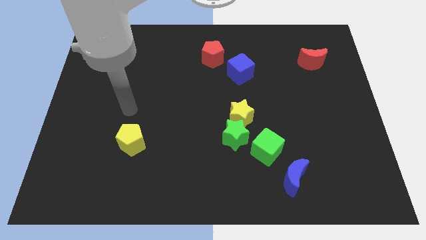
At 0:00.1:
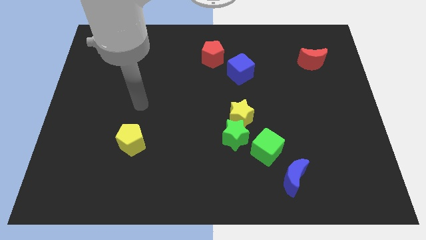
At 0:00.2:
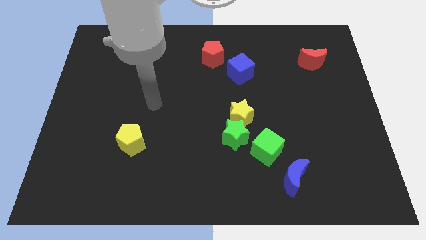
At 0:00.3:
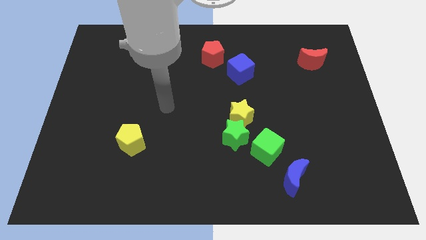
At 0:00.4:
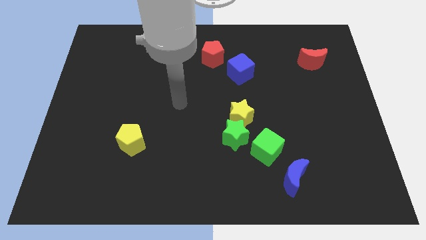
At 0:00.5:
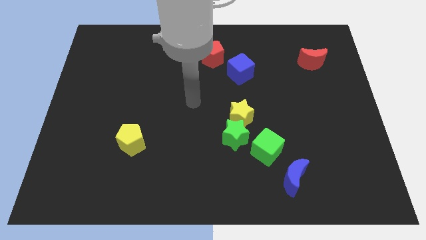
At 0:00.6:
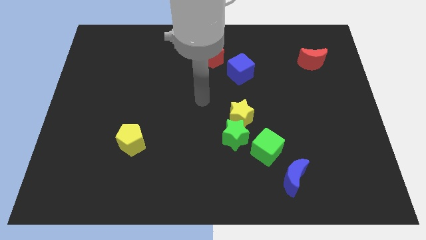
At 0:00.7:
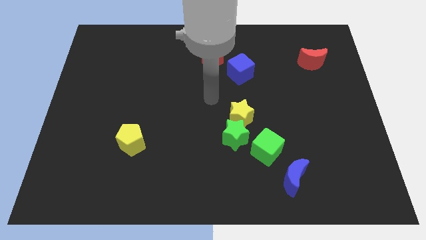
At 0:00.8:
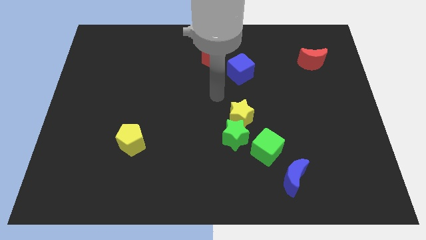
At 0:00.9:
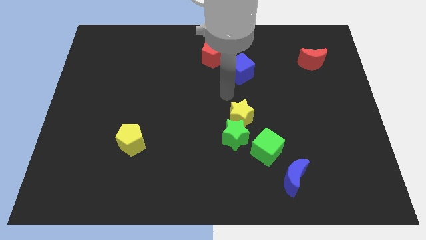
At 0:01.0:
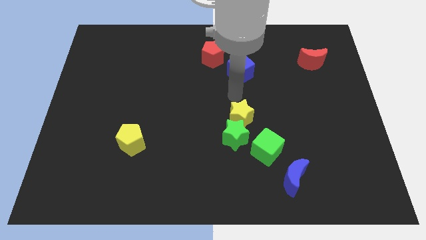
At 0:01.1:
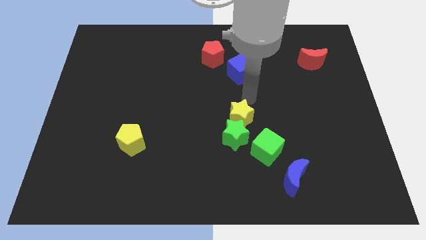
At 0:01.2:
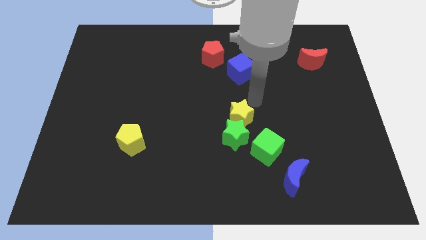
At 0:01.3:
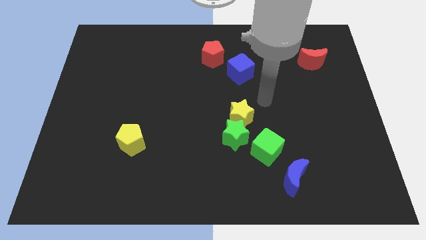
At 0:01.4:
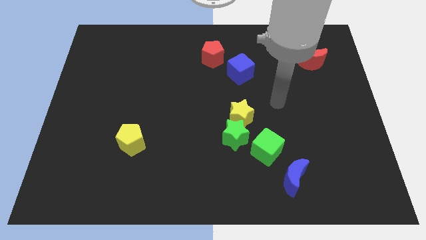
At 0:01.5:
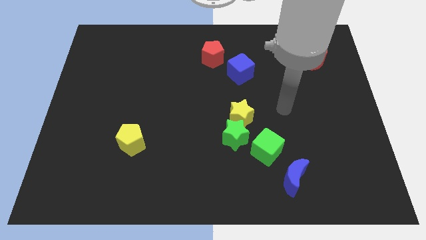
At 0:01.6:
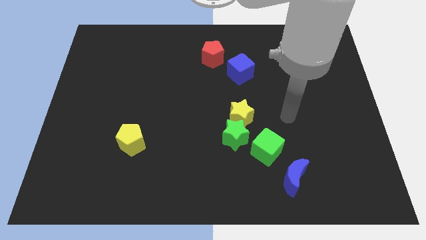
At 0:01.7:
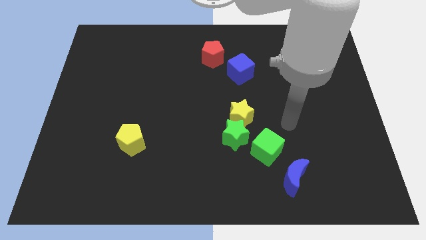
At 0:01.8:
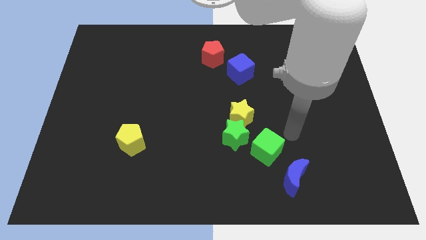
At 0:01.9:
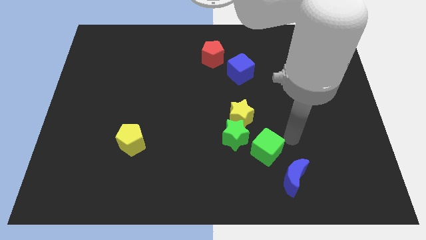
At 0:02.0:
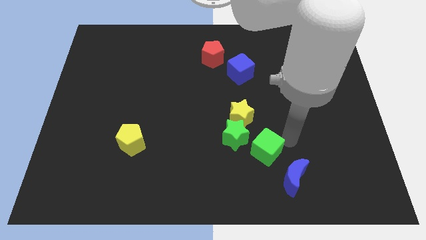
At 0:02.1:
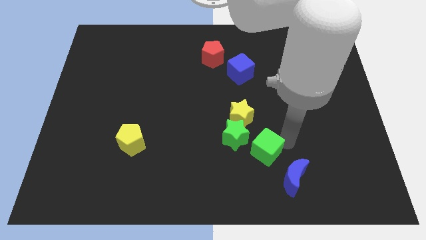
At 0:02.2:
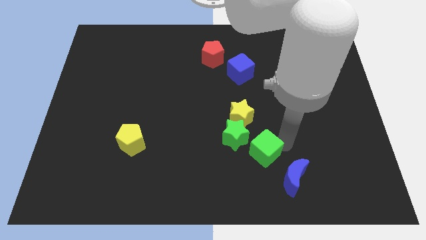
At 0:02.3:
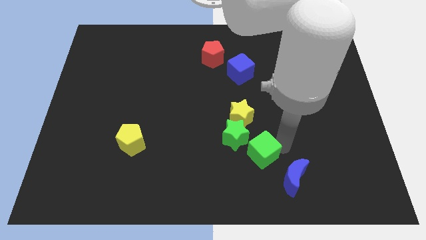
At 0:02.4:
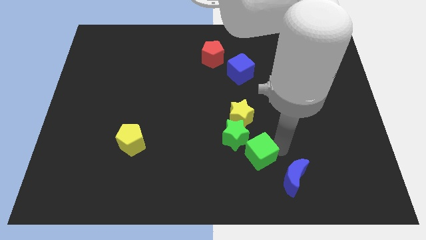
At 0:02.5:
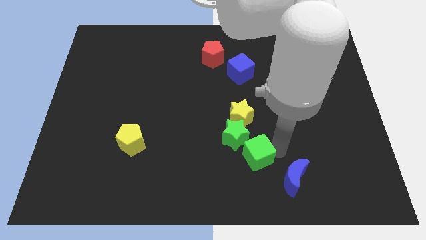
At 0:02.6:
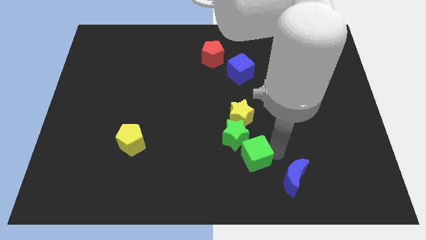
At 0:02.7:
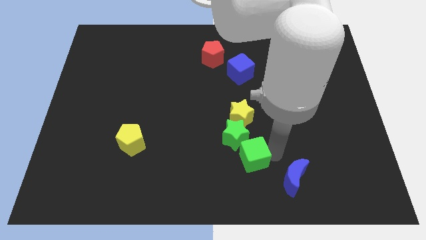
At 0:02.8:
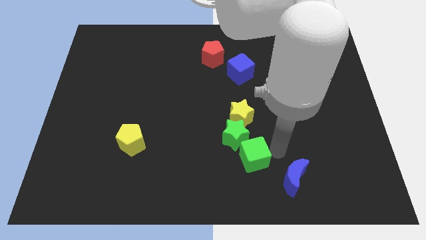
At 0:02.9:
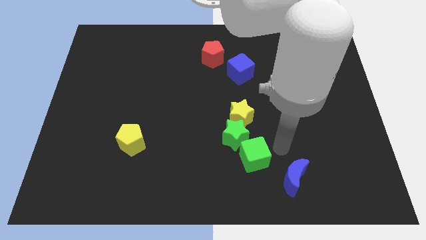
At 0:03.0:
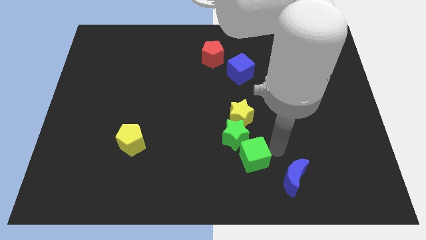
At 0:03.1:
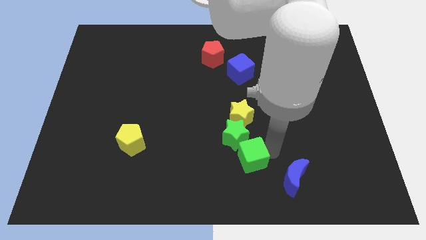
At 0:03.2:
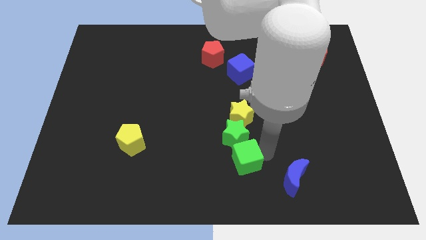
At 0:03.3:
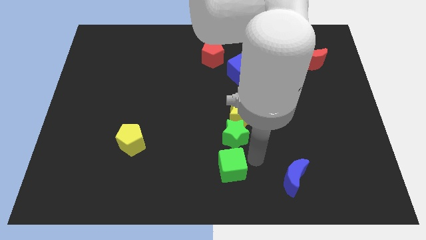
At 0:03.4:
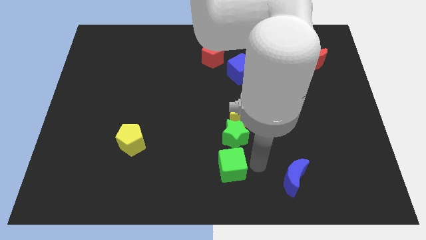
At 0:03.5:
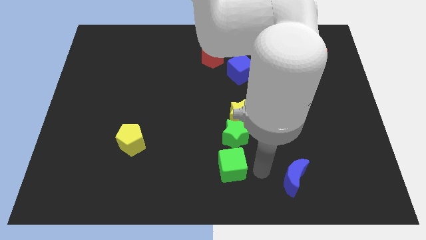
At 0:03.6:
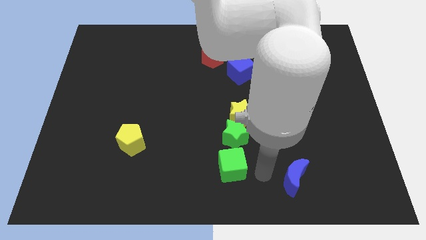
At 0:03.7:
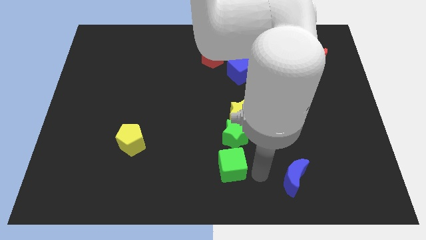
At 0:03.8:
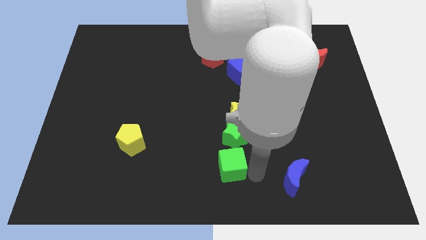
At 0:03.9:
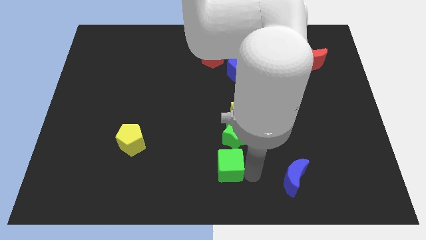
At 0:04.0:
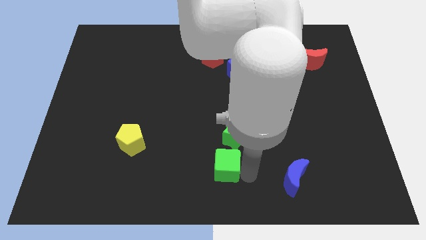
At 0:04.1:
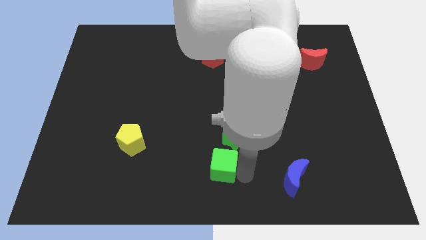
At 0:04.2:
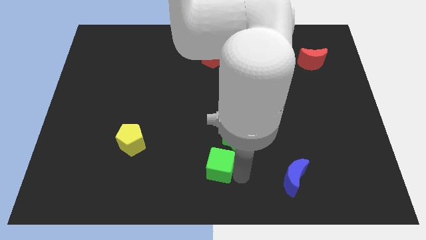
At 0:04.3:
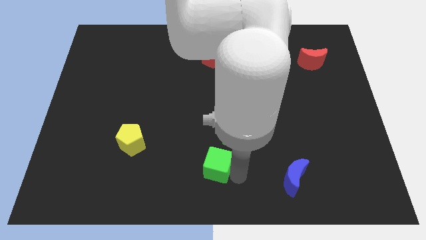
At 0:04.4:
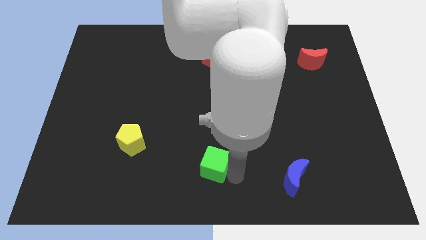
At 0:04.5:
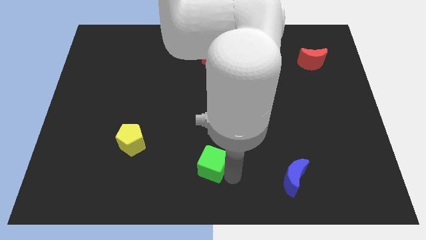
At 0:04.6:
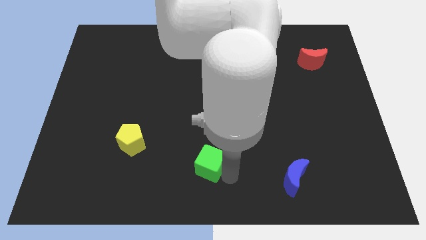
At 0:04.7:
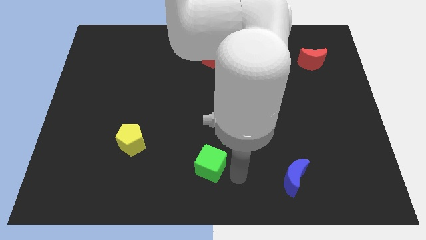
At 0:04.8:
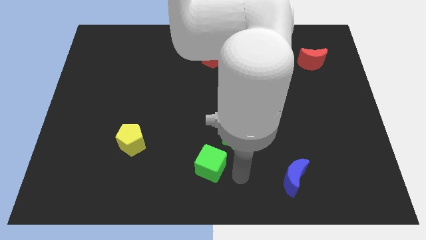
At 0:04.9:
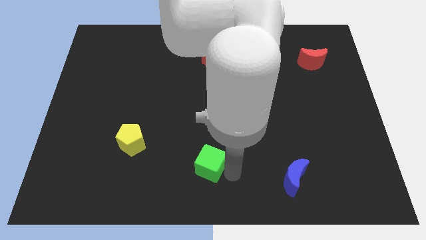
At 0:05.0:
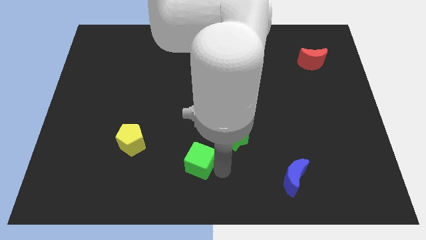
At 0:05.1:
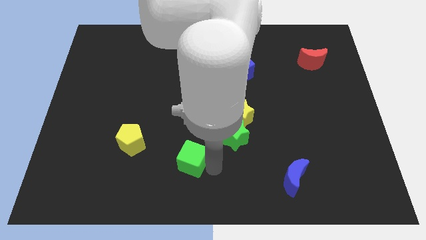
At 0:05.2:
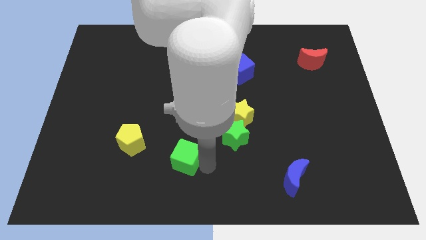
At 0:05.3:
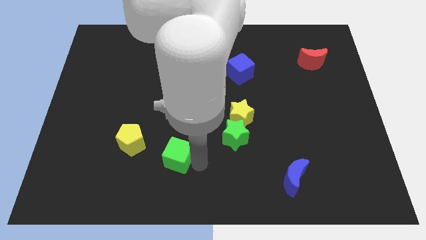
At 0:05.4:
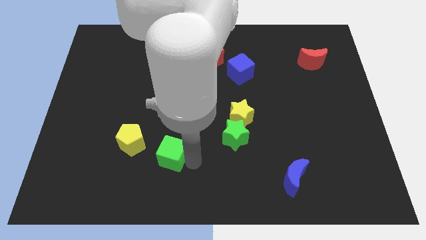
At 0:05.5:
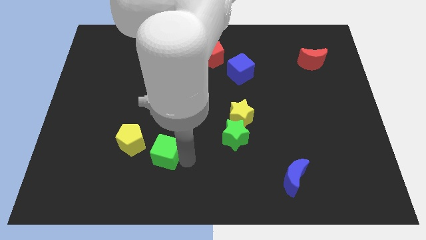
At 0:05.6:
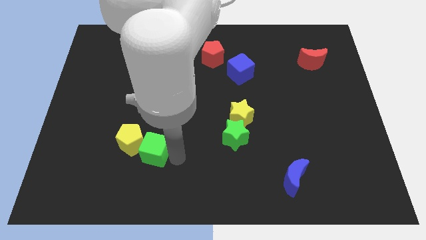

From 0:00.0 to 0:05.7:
move the green cube to the yellow pentagon

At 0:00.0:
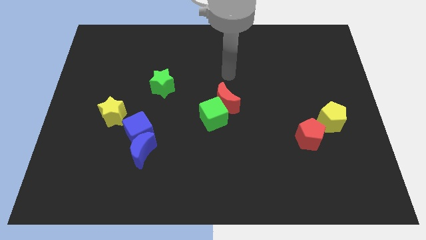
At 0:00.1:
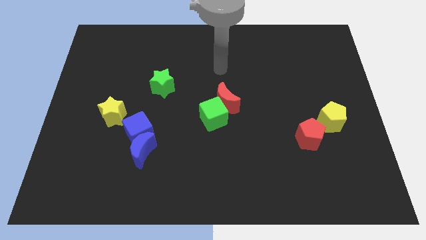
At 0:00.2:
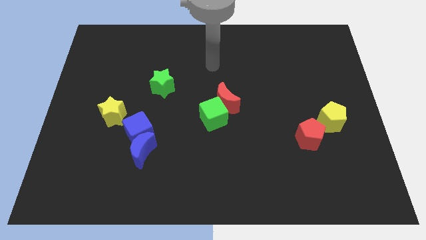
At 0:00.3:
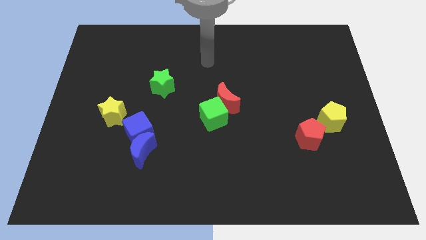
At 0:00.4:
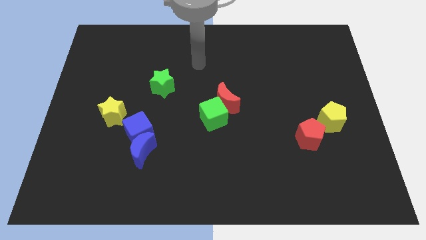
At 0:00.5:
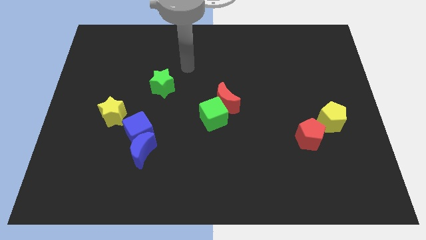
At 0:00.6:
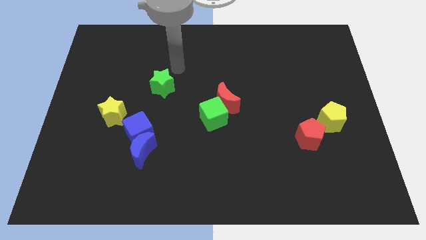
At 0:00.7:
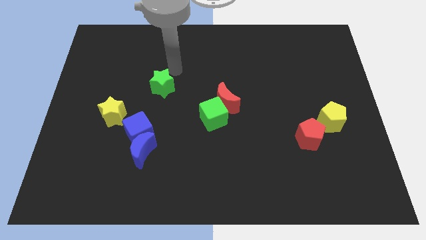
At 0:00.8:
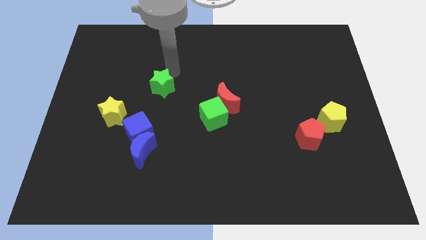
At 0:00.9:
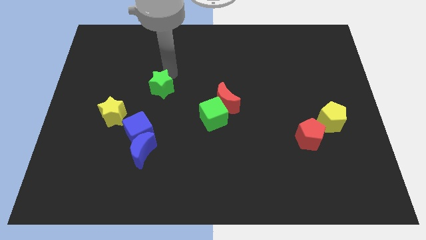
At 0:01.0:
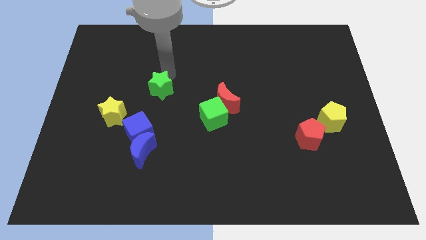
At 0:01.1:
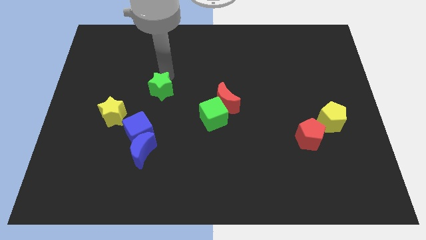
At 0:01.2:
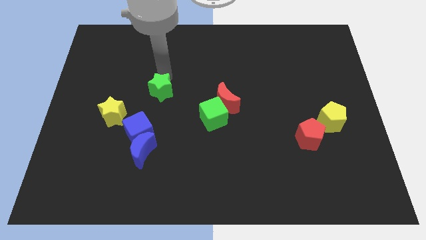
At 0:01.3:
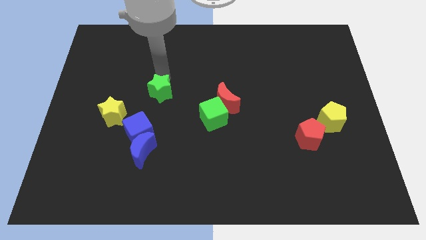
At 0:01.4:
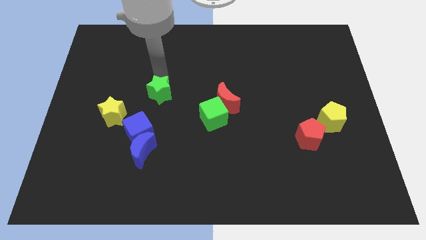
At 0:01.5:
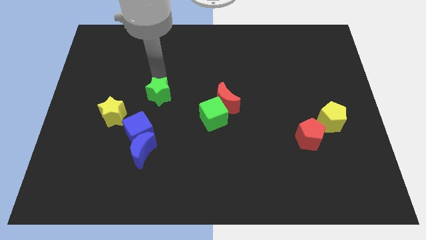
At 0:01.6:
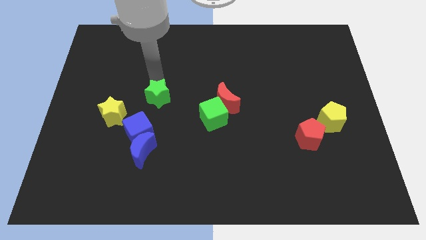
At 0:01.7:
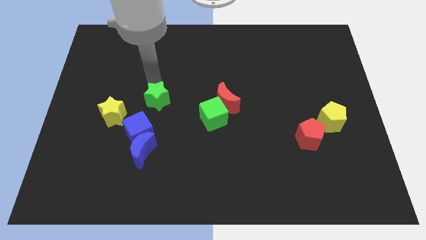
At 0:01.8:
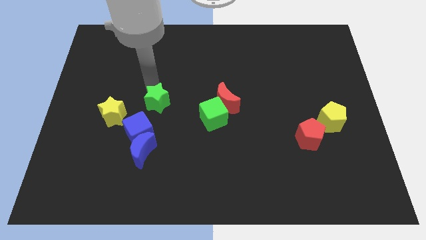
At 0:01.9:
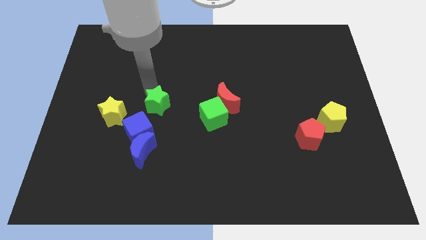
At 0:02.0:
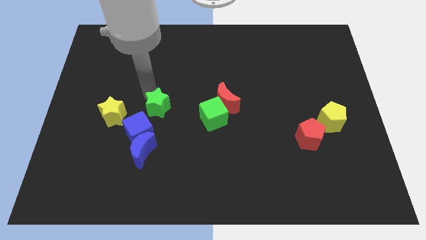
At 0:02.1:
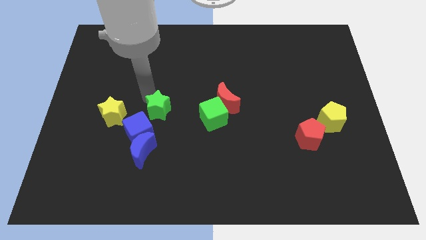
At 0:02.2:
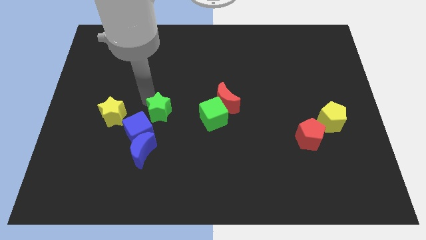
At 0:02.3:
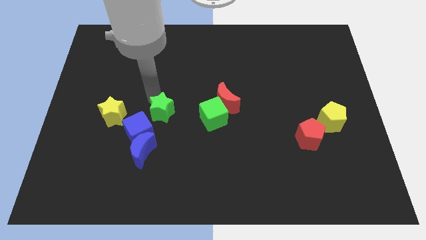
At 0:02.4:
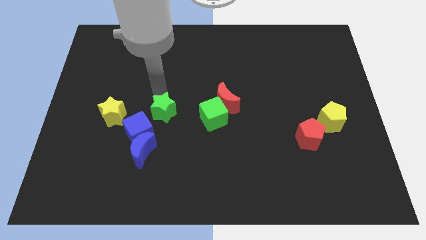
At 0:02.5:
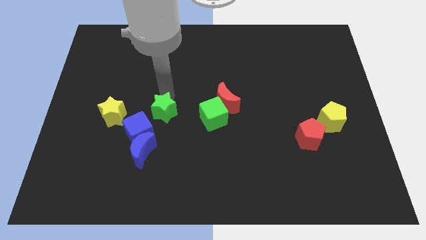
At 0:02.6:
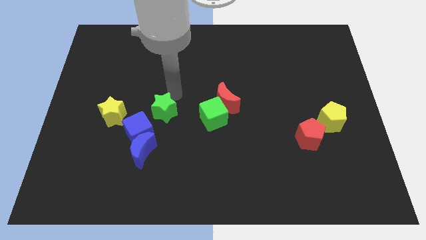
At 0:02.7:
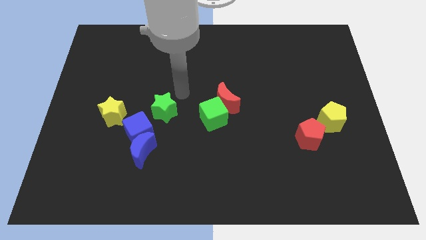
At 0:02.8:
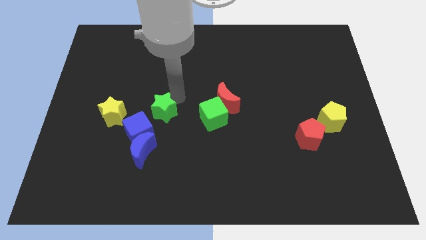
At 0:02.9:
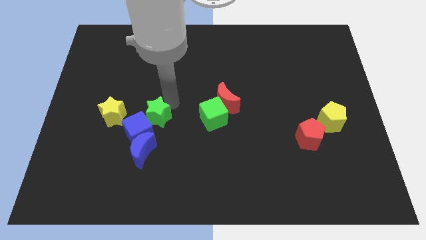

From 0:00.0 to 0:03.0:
move the green star close to the blue cube
